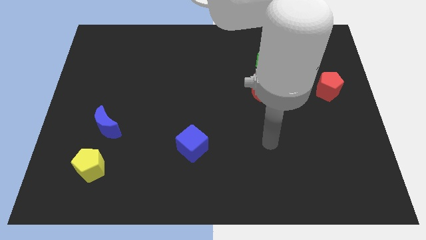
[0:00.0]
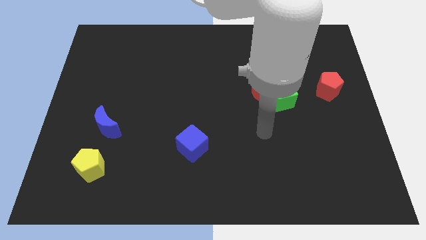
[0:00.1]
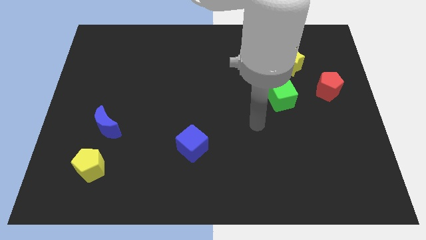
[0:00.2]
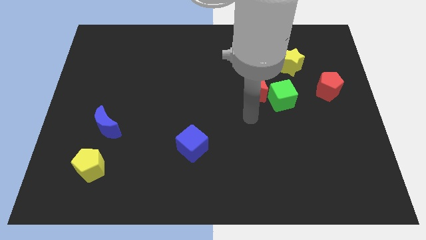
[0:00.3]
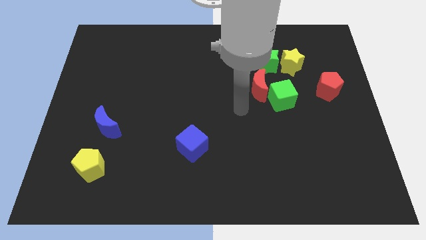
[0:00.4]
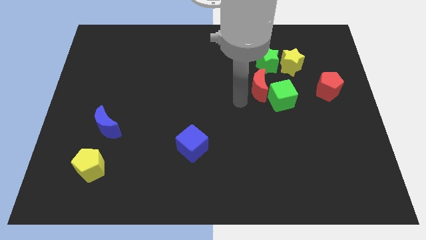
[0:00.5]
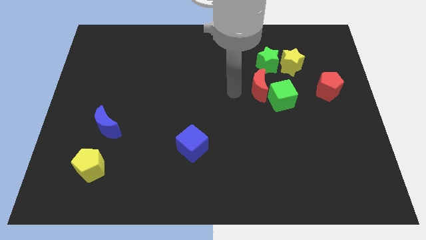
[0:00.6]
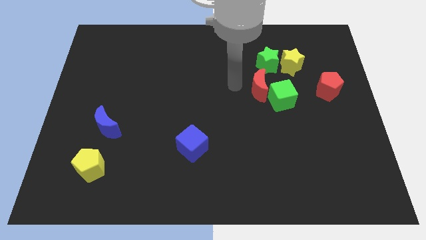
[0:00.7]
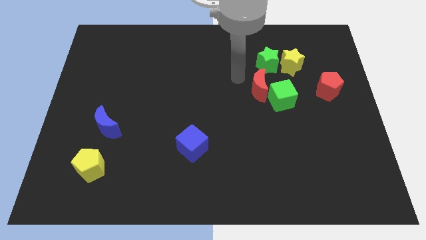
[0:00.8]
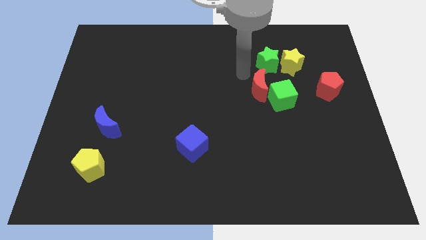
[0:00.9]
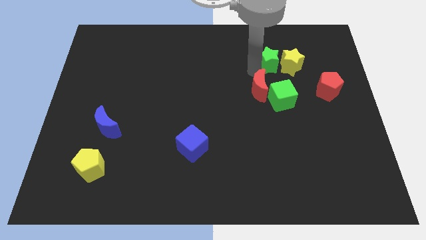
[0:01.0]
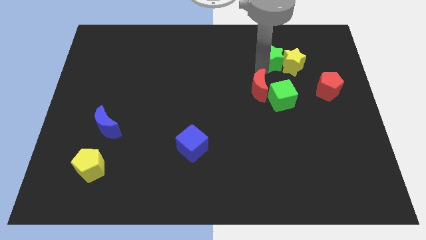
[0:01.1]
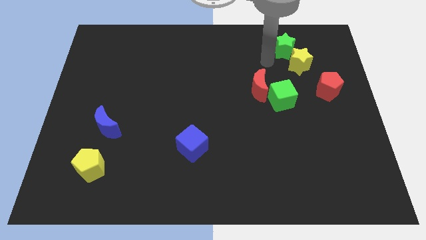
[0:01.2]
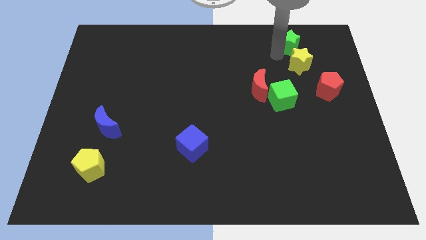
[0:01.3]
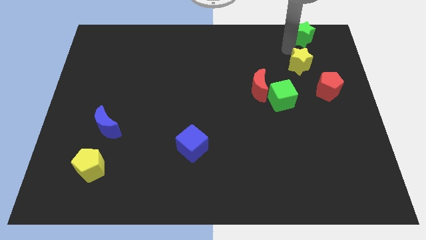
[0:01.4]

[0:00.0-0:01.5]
pull the yellow star apart from the green star

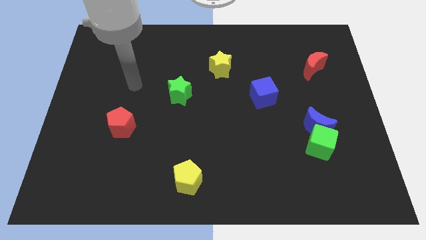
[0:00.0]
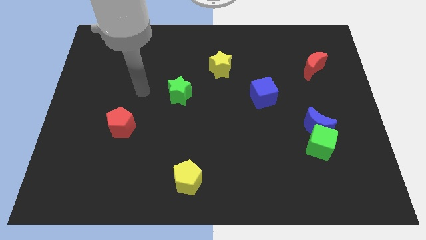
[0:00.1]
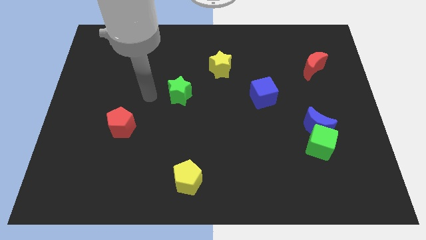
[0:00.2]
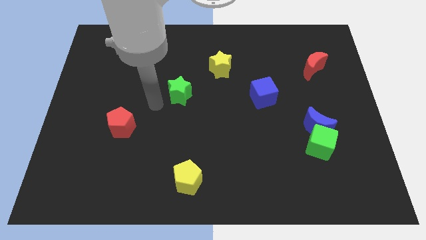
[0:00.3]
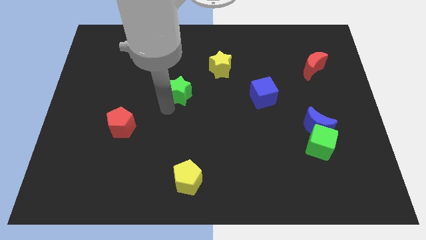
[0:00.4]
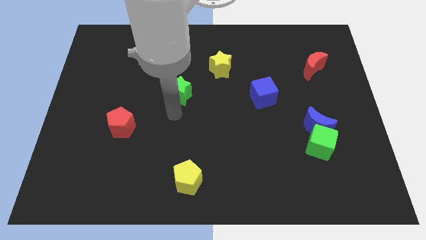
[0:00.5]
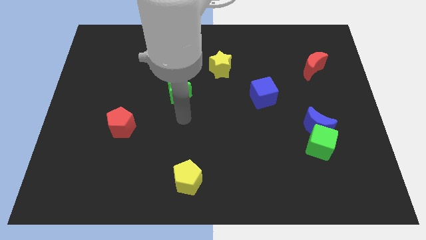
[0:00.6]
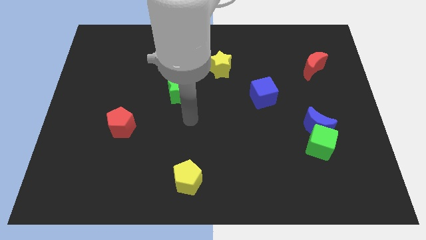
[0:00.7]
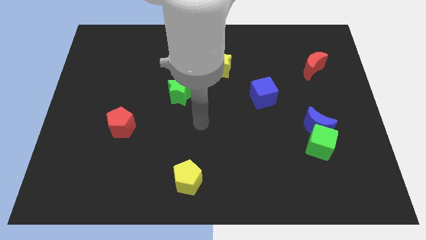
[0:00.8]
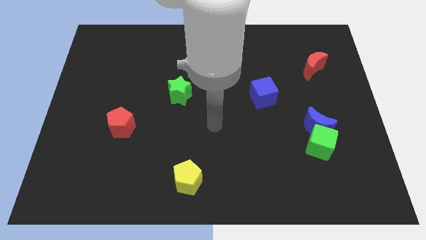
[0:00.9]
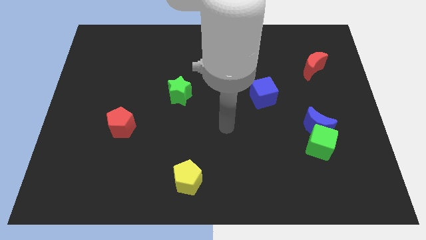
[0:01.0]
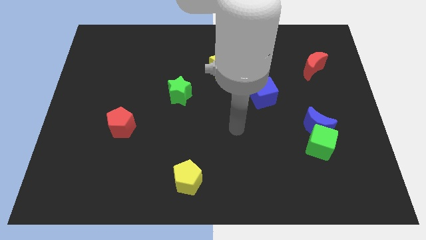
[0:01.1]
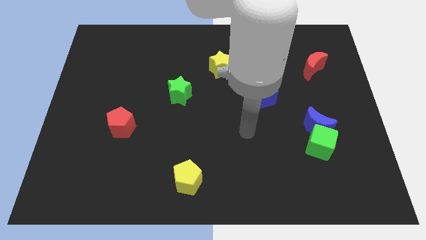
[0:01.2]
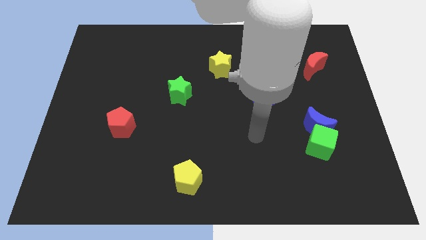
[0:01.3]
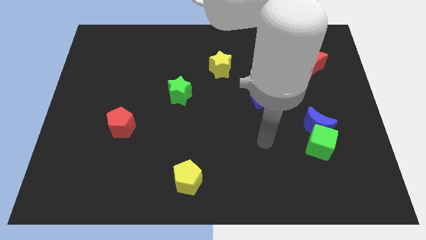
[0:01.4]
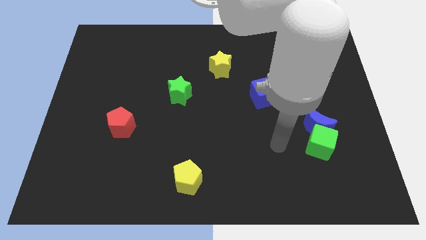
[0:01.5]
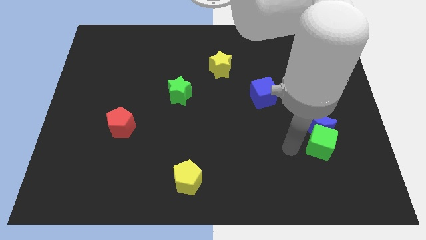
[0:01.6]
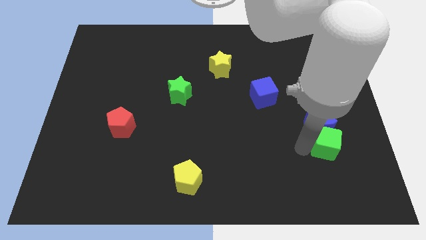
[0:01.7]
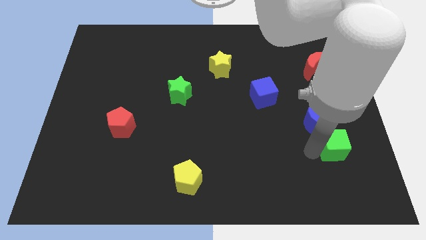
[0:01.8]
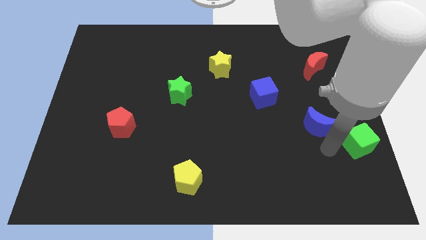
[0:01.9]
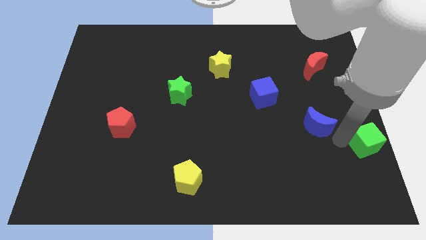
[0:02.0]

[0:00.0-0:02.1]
move the blue moon away from the green cube

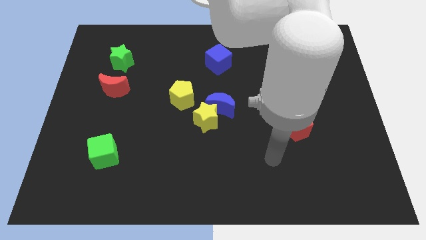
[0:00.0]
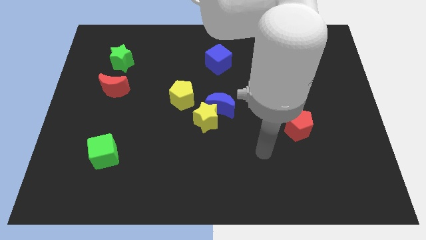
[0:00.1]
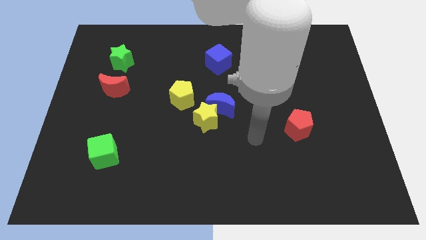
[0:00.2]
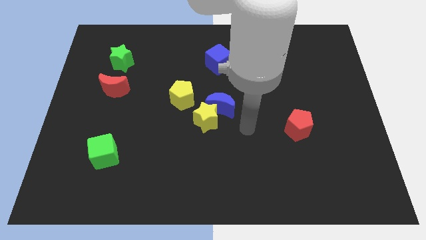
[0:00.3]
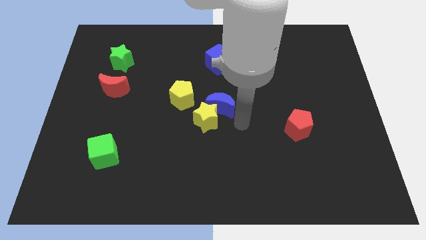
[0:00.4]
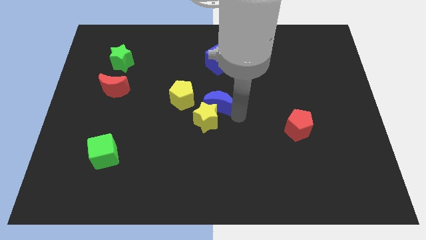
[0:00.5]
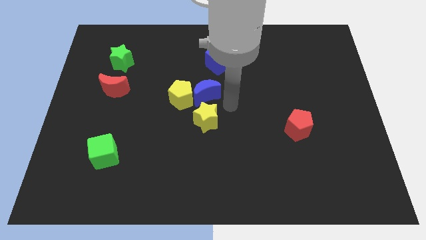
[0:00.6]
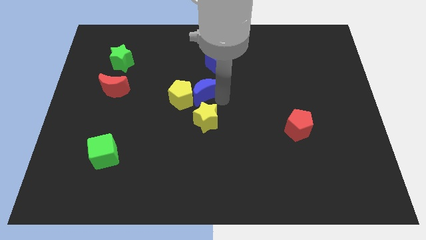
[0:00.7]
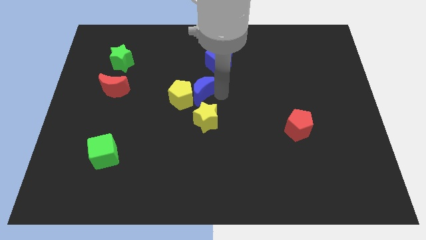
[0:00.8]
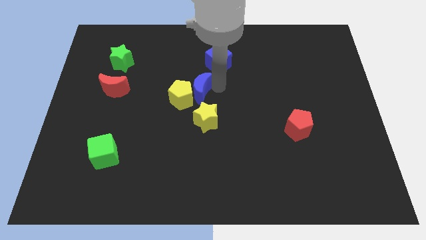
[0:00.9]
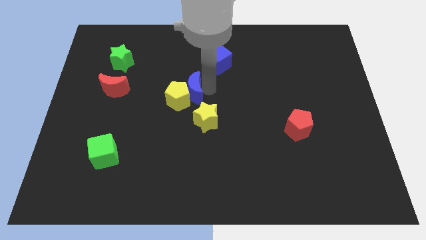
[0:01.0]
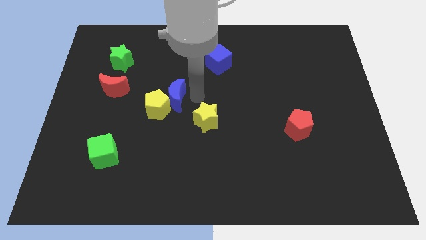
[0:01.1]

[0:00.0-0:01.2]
move the yellow star away from the blue moon and yellow pentagon

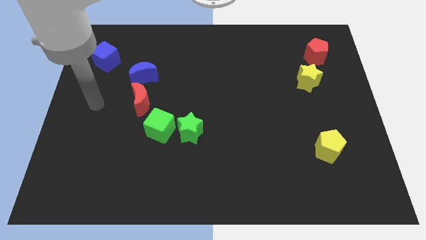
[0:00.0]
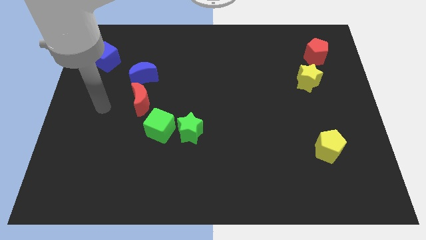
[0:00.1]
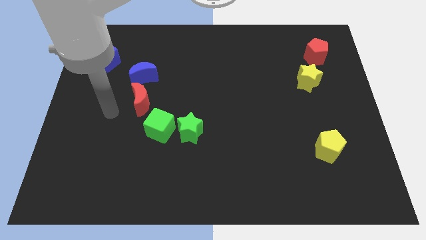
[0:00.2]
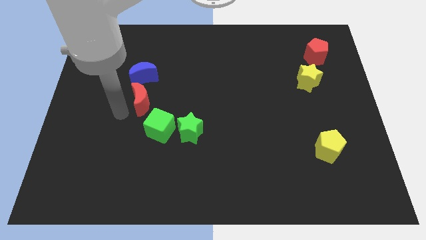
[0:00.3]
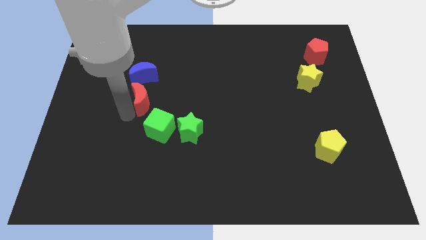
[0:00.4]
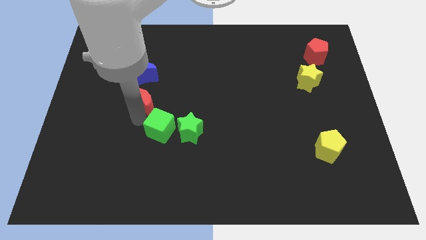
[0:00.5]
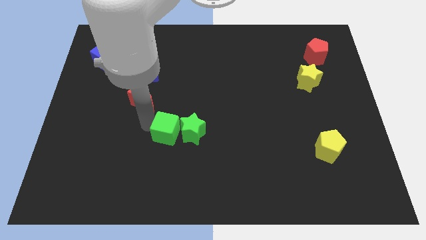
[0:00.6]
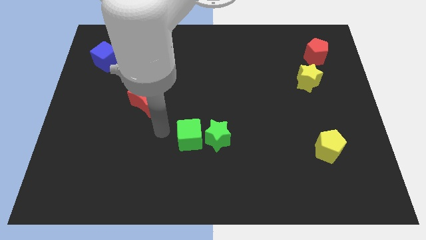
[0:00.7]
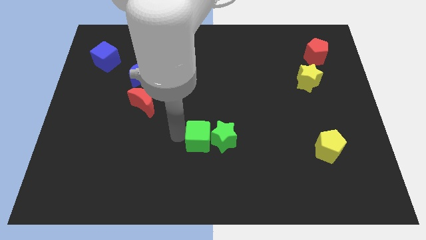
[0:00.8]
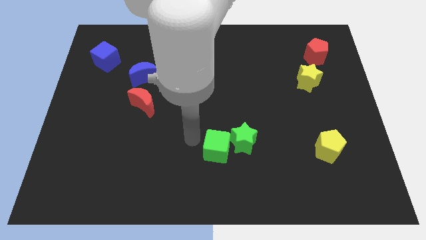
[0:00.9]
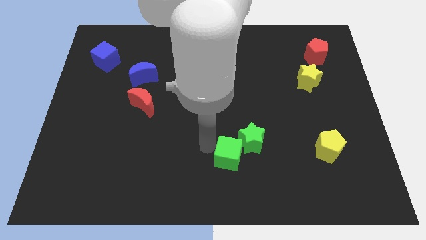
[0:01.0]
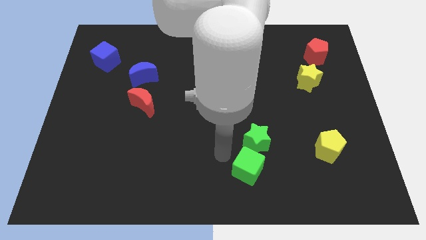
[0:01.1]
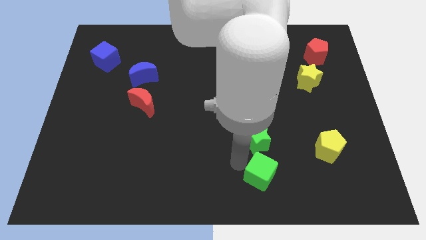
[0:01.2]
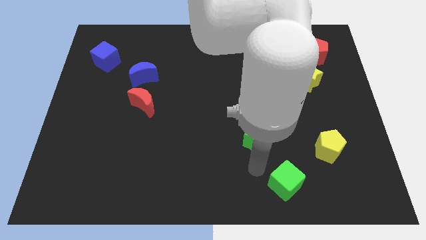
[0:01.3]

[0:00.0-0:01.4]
pull the green star apart from the green cube

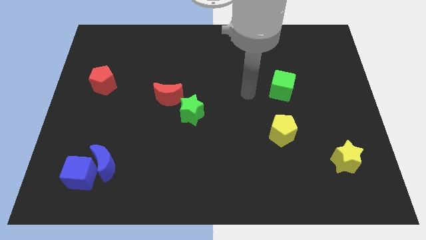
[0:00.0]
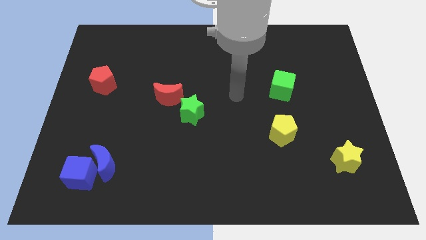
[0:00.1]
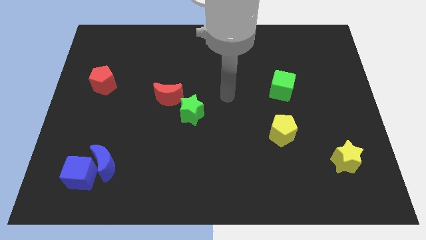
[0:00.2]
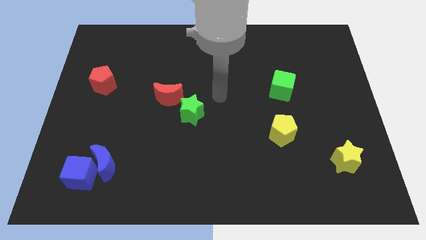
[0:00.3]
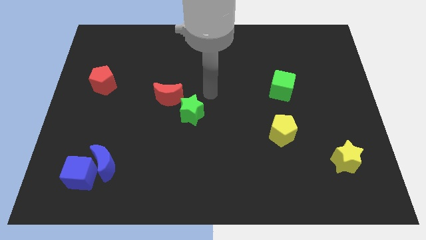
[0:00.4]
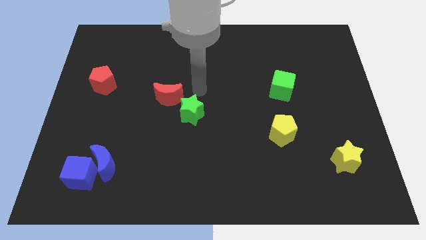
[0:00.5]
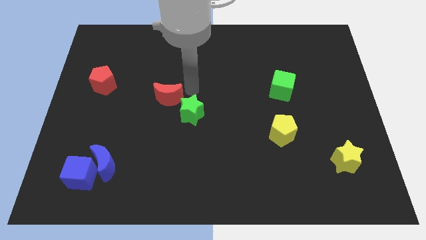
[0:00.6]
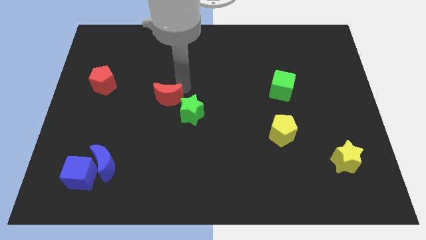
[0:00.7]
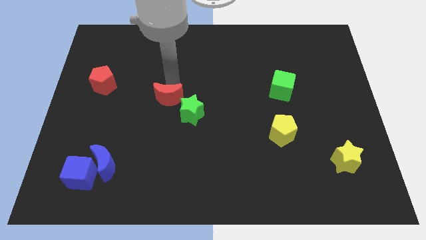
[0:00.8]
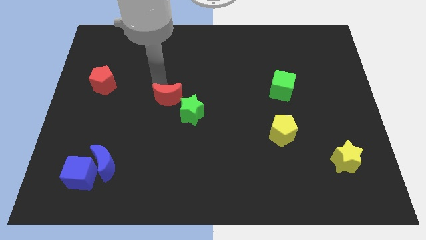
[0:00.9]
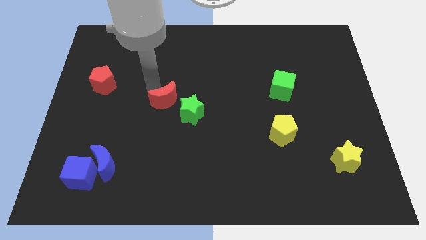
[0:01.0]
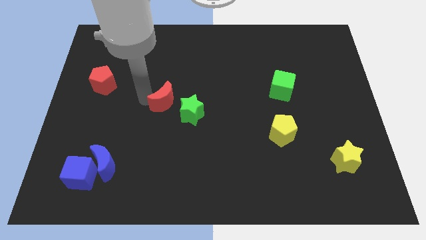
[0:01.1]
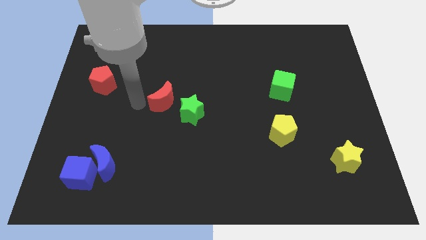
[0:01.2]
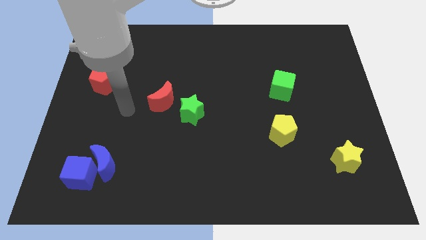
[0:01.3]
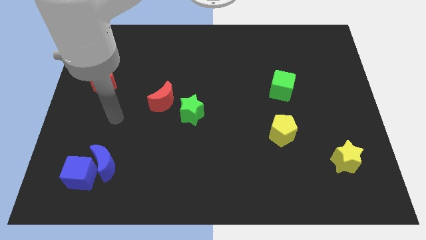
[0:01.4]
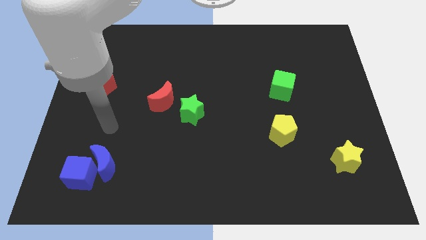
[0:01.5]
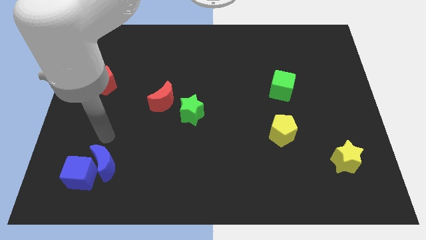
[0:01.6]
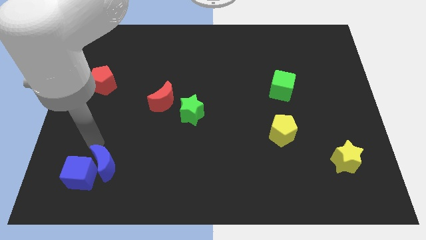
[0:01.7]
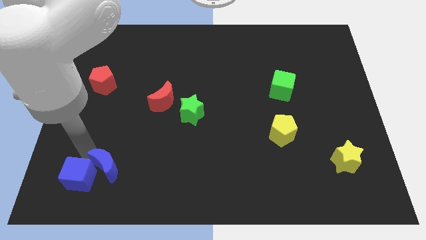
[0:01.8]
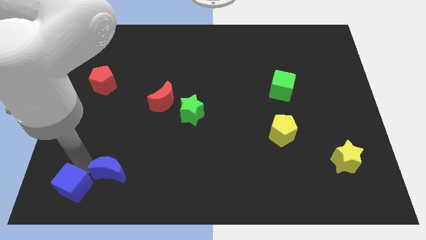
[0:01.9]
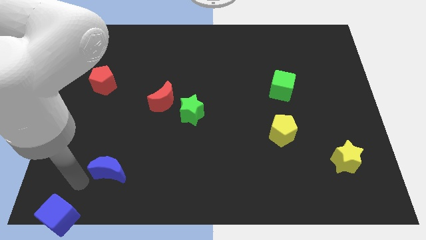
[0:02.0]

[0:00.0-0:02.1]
pull the blue moon apart from the blue cube

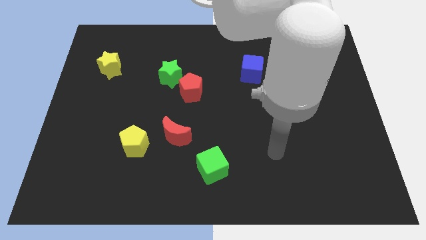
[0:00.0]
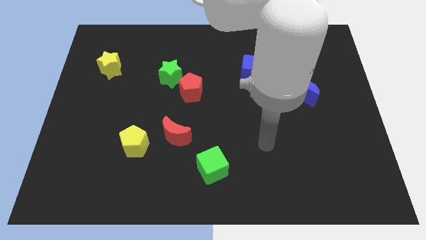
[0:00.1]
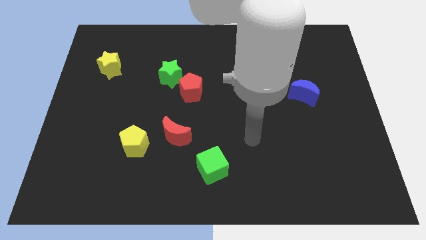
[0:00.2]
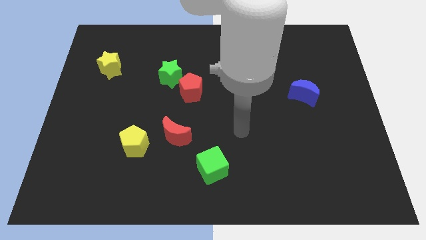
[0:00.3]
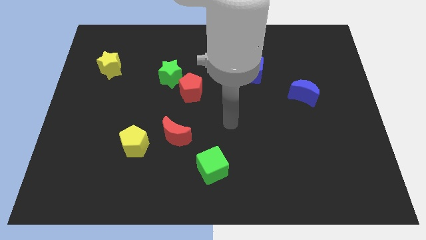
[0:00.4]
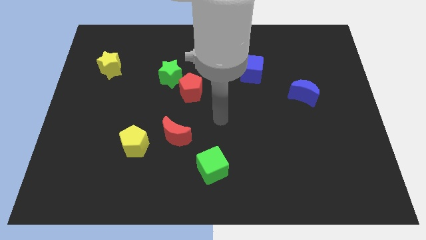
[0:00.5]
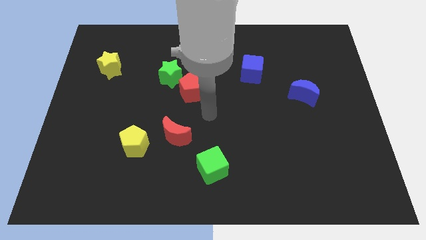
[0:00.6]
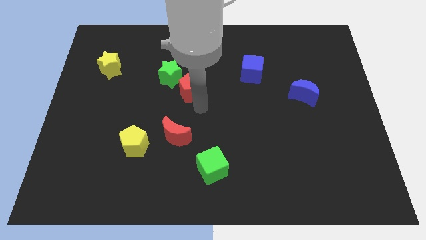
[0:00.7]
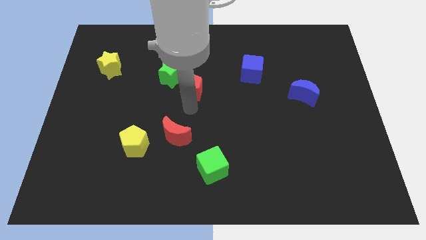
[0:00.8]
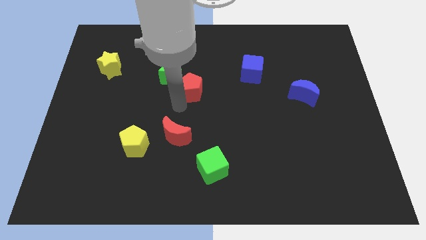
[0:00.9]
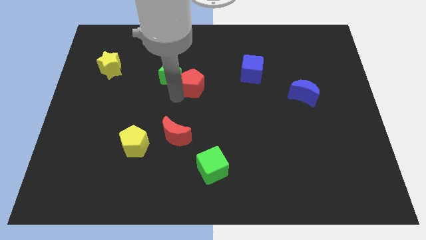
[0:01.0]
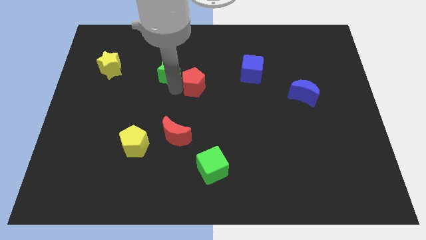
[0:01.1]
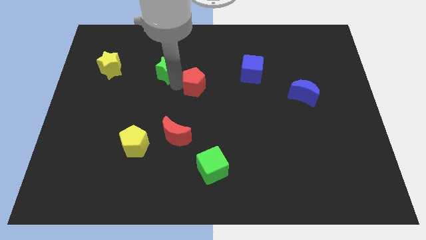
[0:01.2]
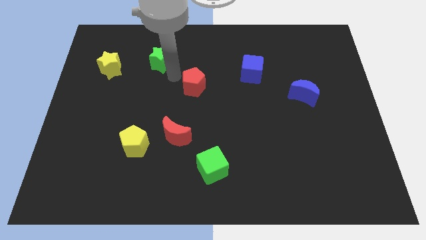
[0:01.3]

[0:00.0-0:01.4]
move the red pentagon away from the green star
